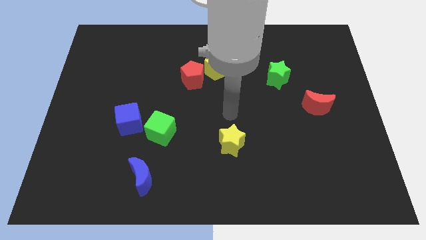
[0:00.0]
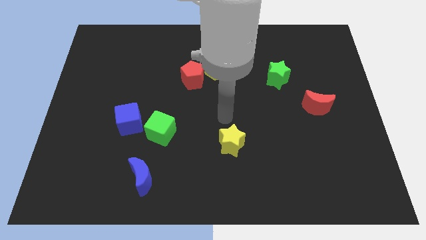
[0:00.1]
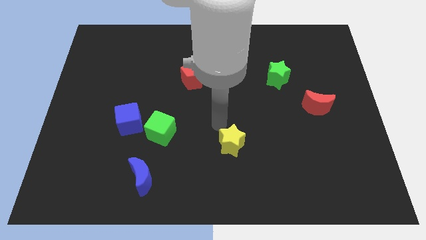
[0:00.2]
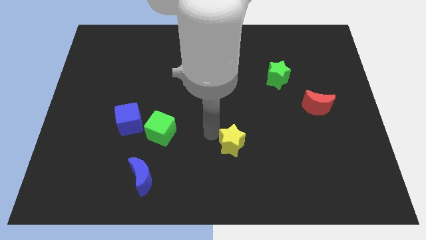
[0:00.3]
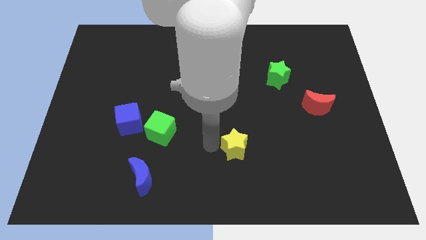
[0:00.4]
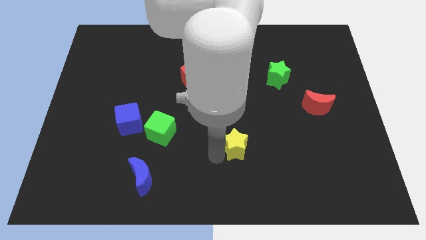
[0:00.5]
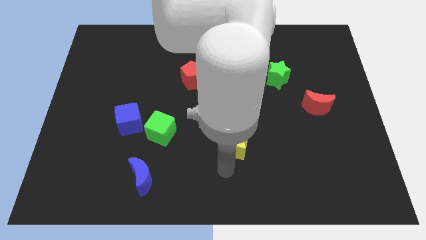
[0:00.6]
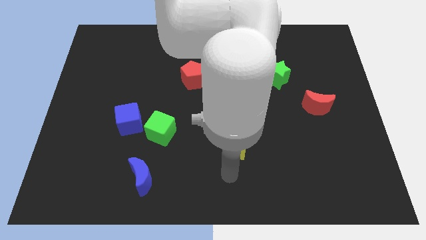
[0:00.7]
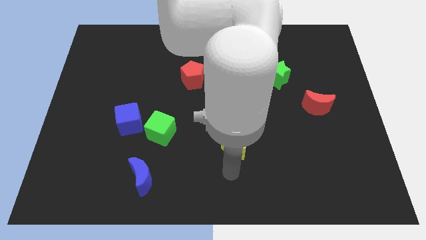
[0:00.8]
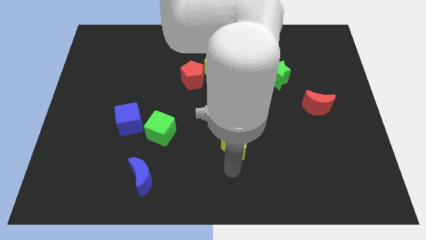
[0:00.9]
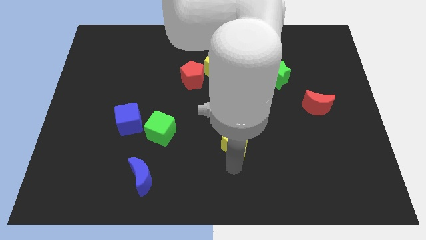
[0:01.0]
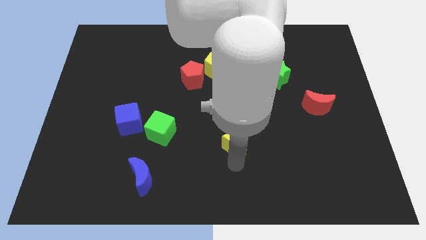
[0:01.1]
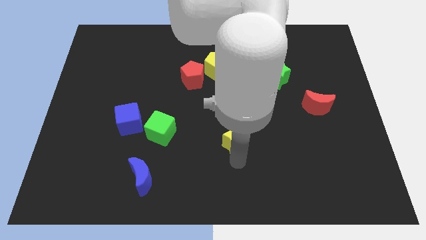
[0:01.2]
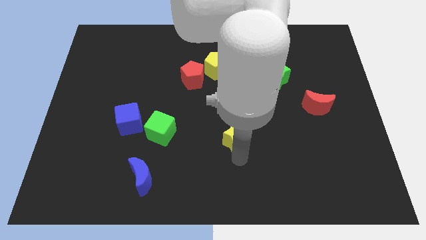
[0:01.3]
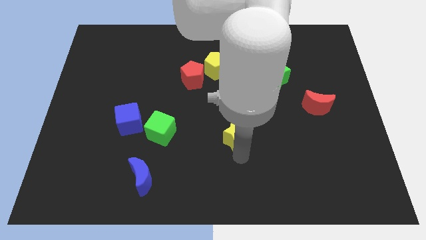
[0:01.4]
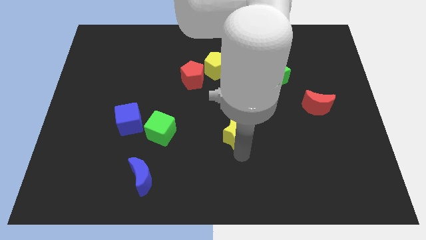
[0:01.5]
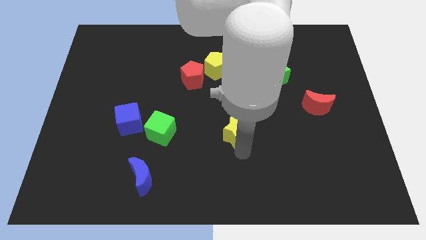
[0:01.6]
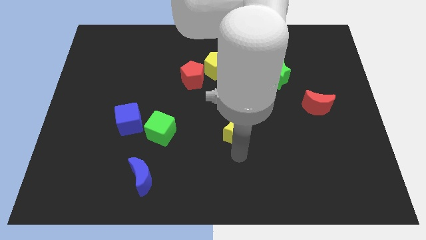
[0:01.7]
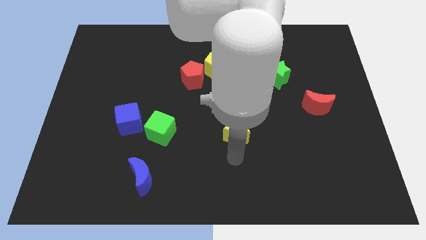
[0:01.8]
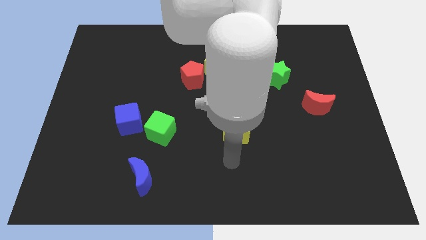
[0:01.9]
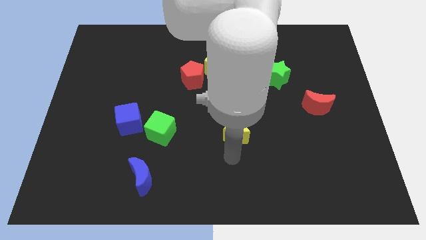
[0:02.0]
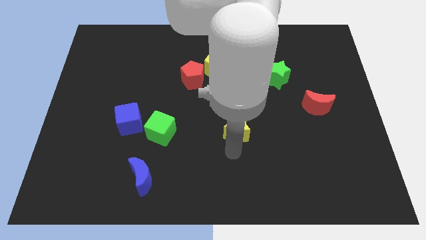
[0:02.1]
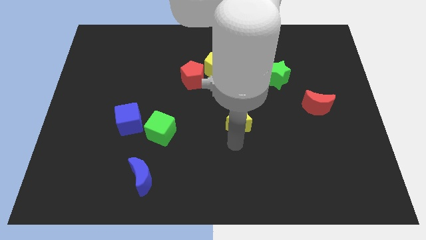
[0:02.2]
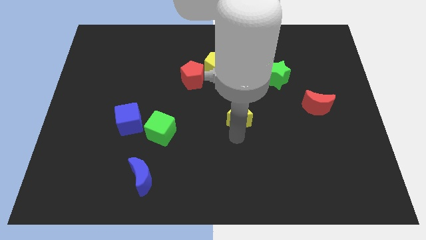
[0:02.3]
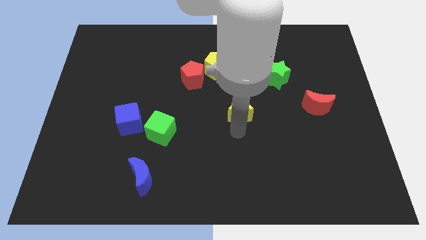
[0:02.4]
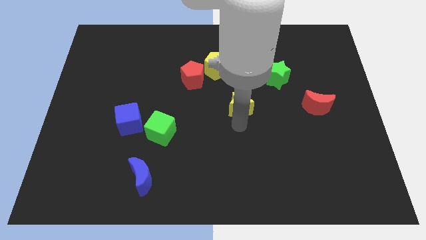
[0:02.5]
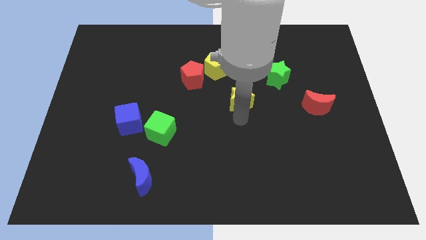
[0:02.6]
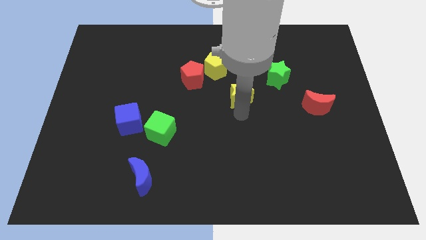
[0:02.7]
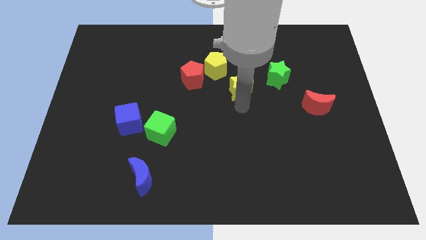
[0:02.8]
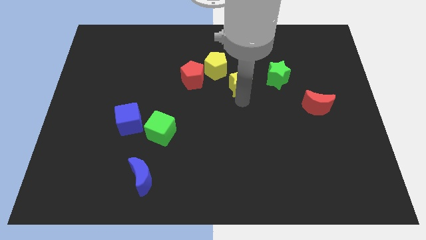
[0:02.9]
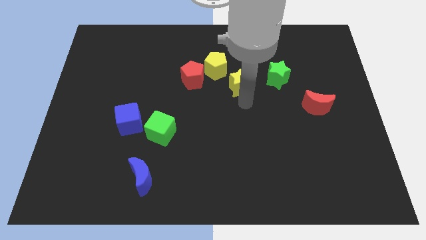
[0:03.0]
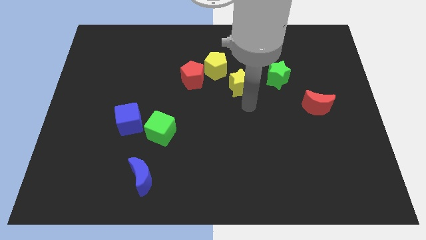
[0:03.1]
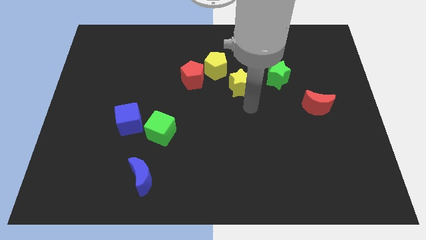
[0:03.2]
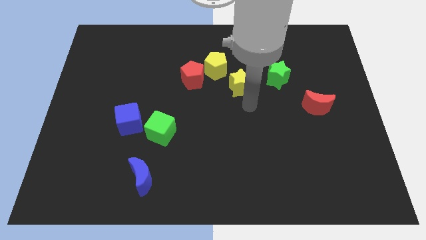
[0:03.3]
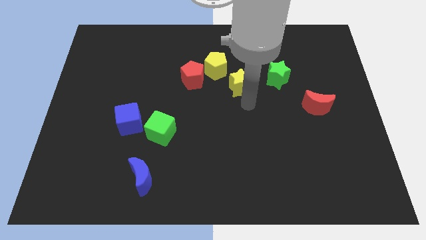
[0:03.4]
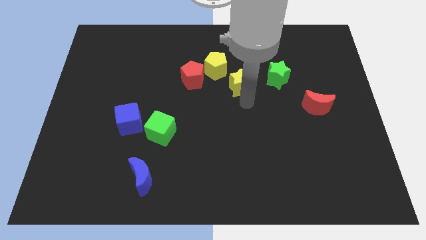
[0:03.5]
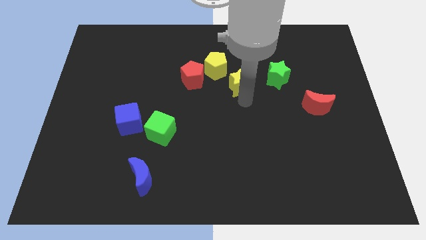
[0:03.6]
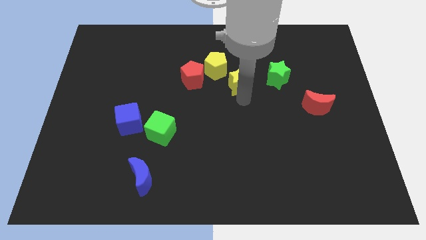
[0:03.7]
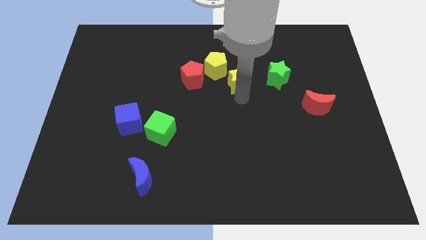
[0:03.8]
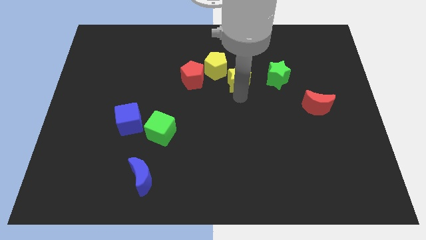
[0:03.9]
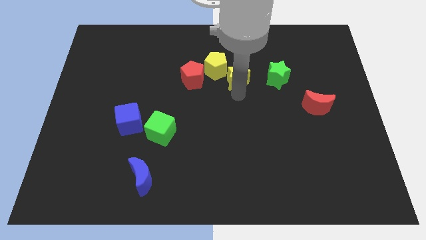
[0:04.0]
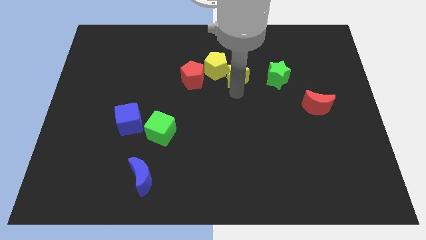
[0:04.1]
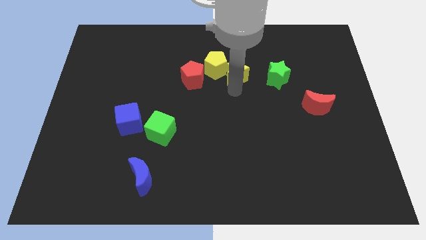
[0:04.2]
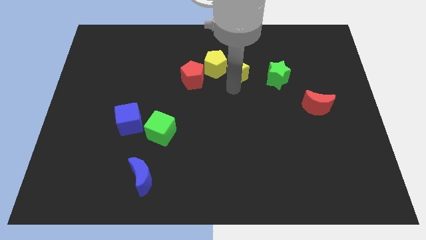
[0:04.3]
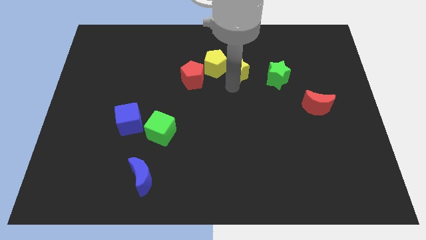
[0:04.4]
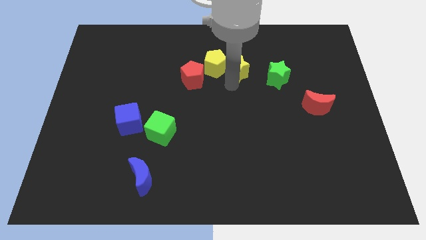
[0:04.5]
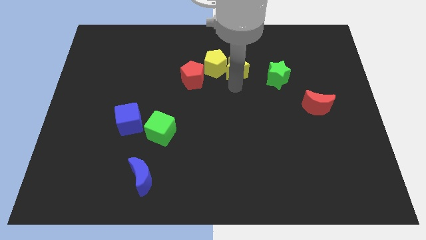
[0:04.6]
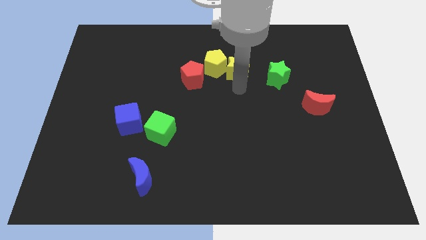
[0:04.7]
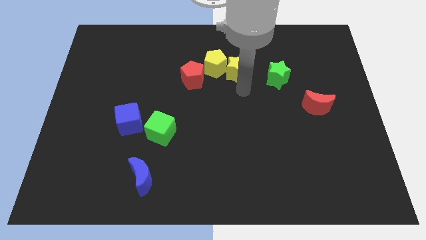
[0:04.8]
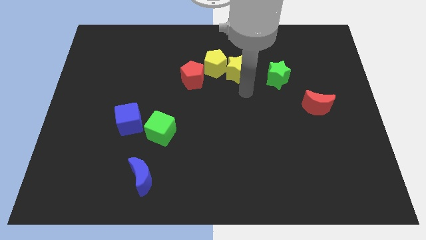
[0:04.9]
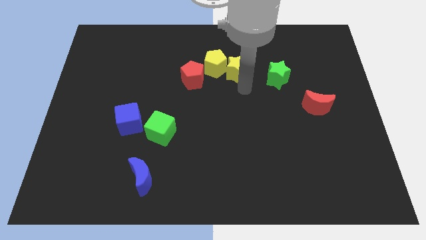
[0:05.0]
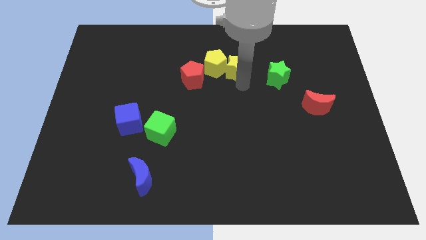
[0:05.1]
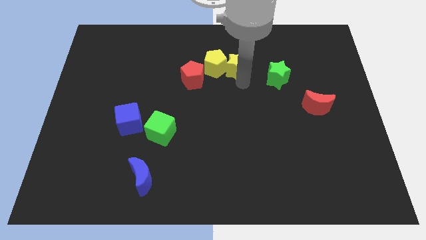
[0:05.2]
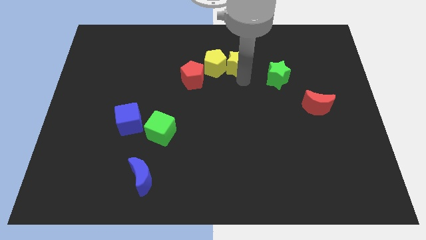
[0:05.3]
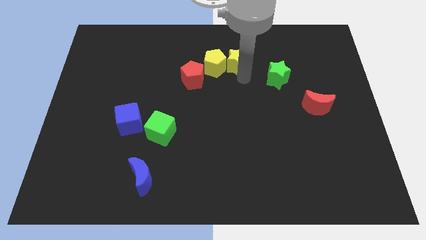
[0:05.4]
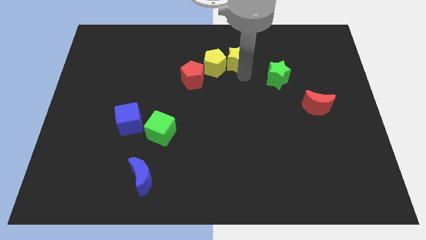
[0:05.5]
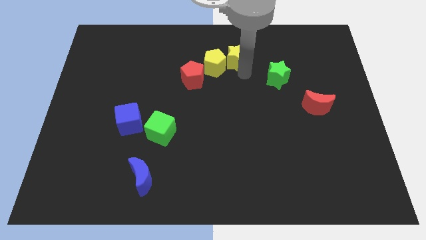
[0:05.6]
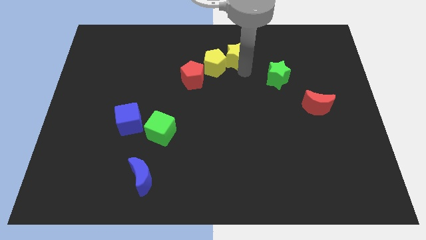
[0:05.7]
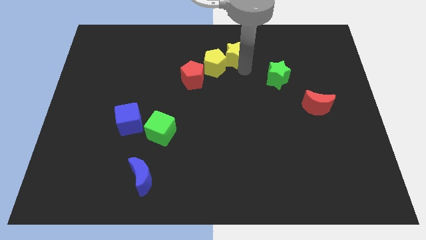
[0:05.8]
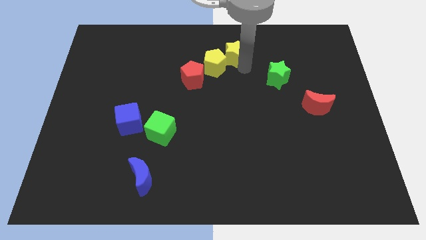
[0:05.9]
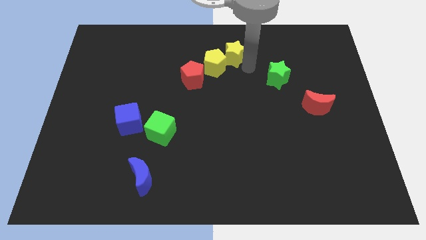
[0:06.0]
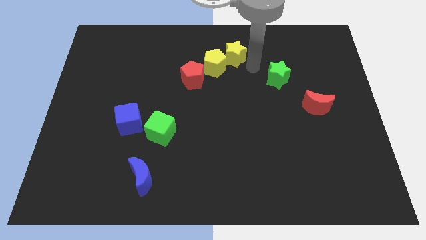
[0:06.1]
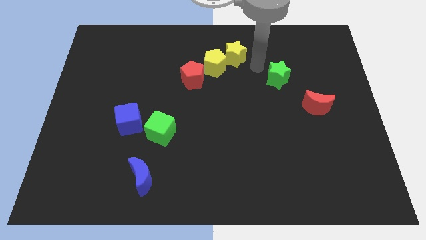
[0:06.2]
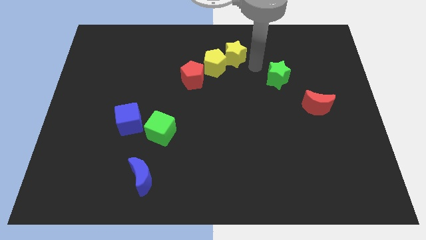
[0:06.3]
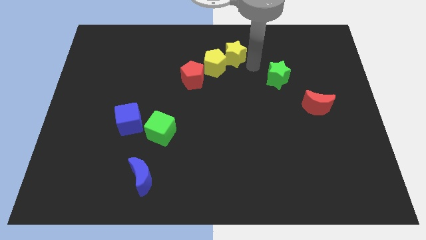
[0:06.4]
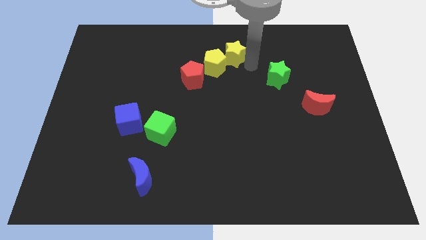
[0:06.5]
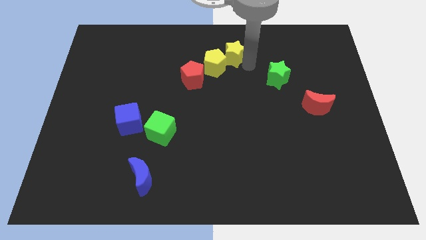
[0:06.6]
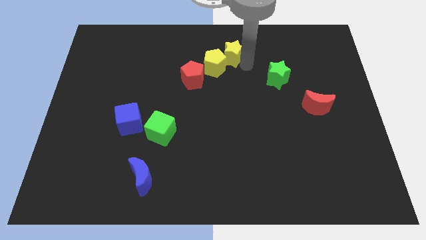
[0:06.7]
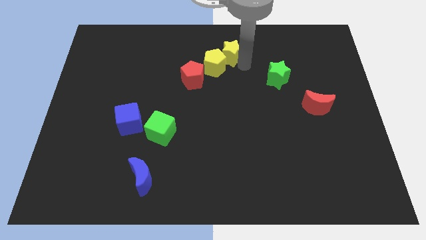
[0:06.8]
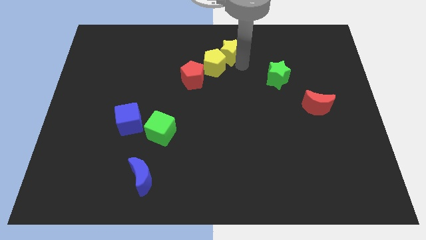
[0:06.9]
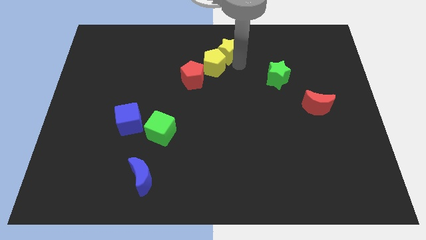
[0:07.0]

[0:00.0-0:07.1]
put the yellow star to the top
